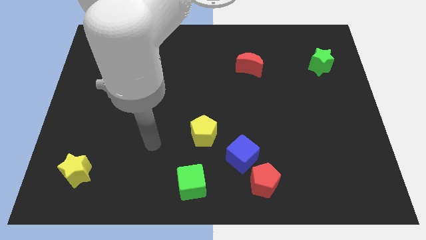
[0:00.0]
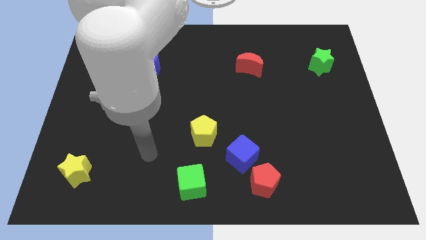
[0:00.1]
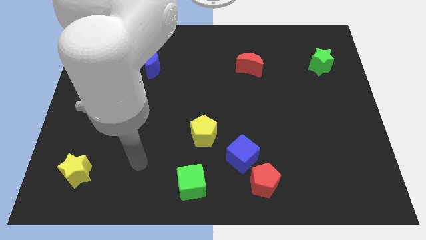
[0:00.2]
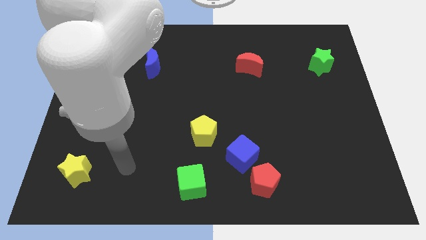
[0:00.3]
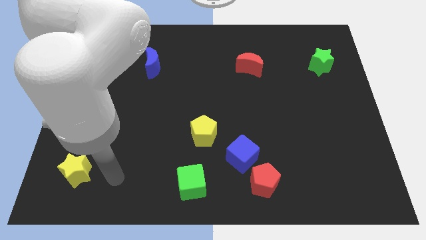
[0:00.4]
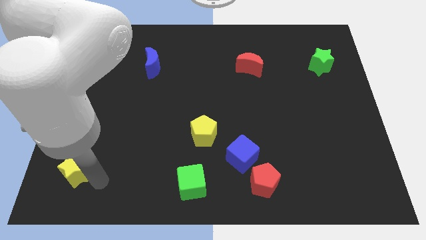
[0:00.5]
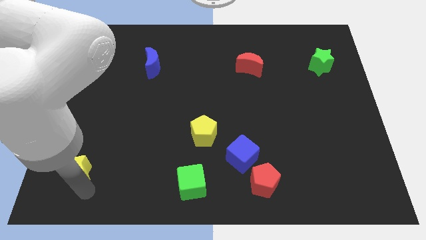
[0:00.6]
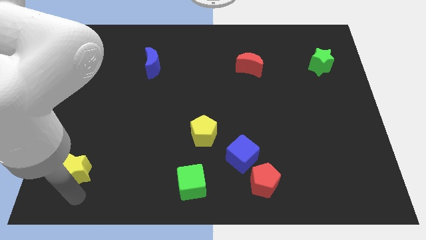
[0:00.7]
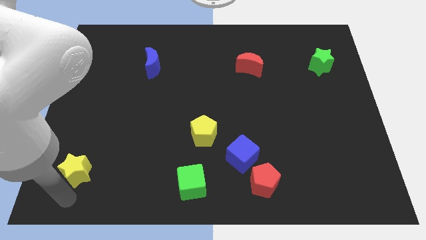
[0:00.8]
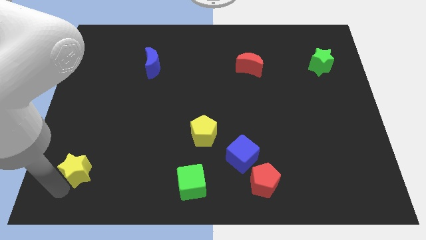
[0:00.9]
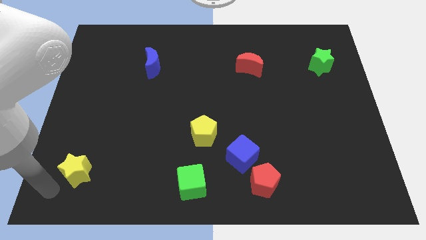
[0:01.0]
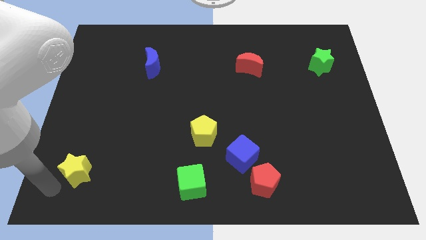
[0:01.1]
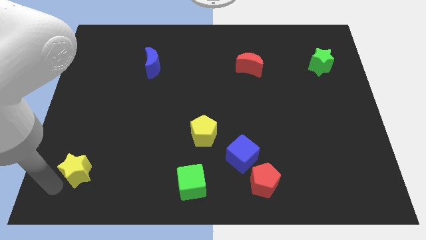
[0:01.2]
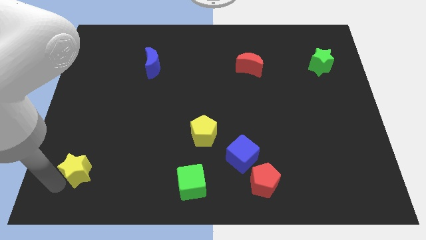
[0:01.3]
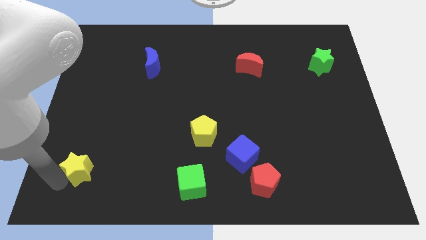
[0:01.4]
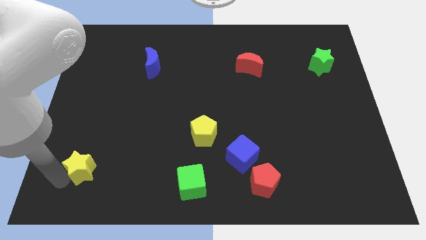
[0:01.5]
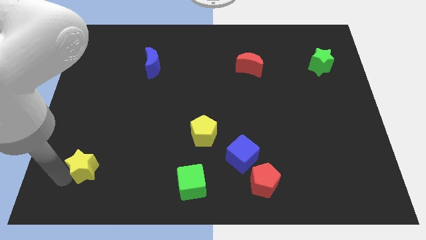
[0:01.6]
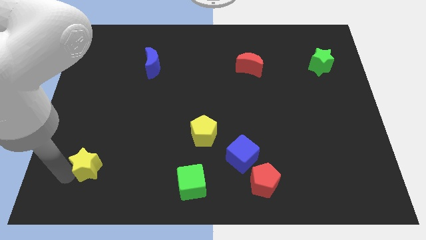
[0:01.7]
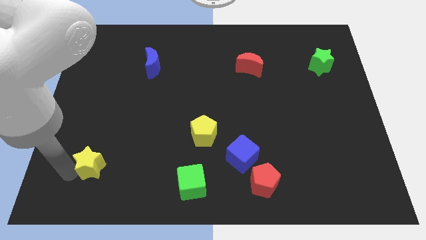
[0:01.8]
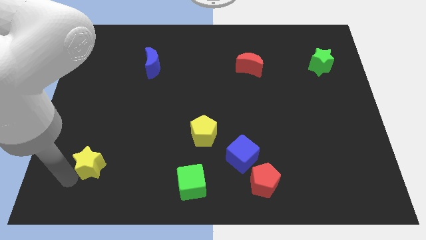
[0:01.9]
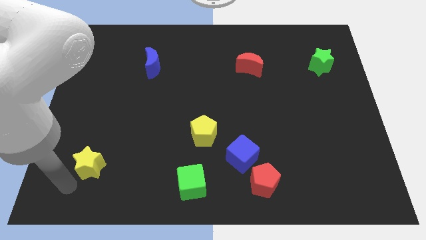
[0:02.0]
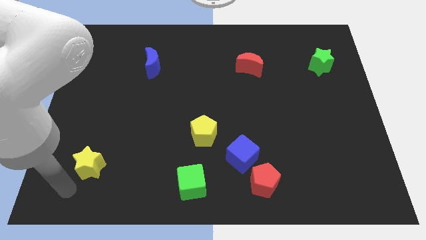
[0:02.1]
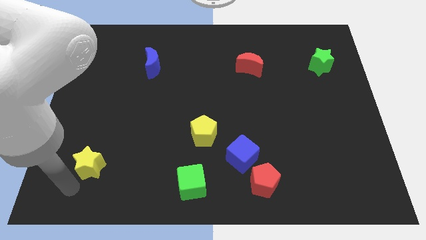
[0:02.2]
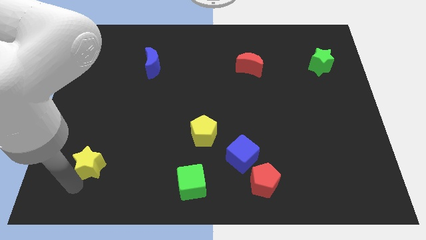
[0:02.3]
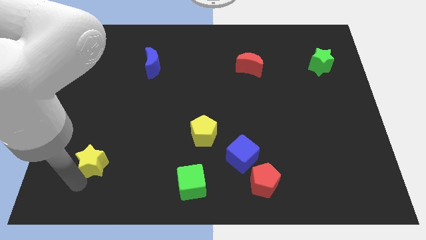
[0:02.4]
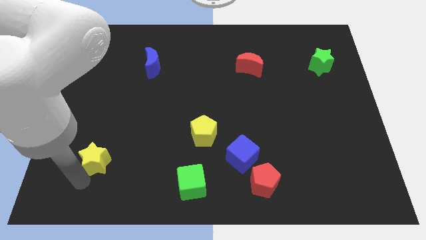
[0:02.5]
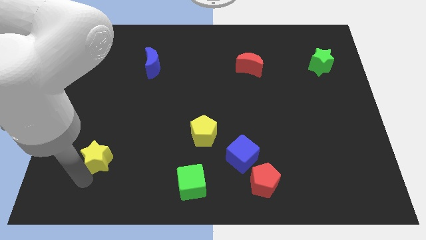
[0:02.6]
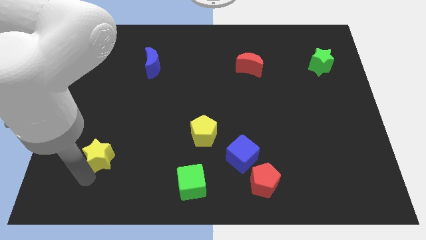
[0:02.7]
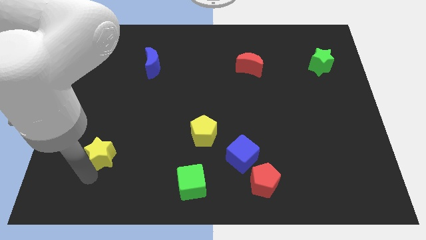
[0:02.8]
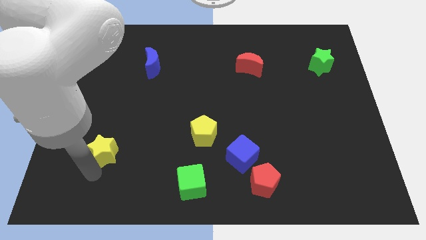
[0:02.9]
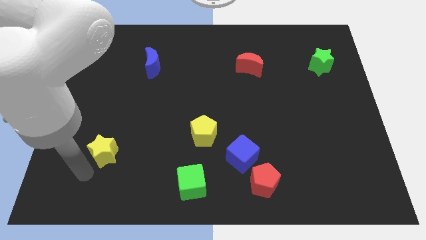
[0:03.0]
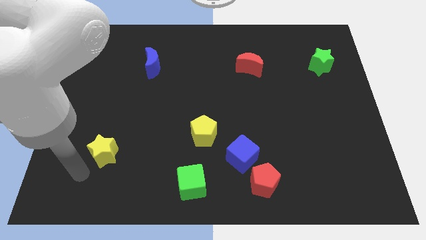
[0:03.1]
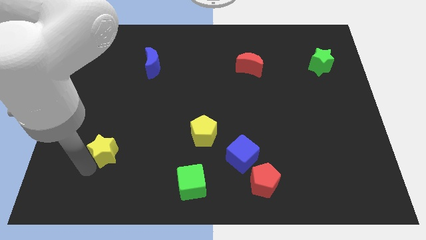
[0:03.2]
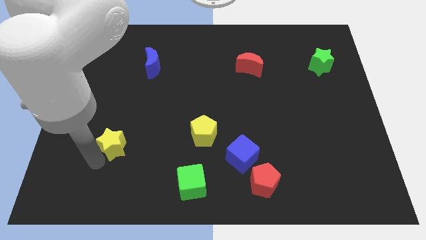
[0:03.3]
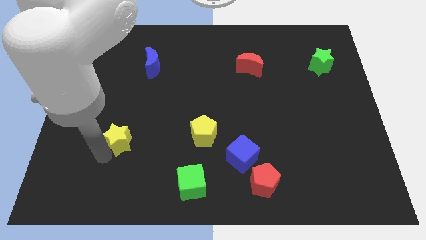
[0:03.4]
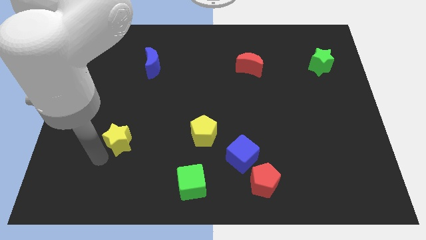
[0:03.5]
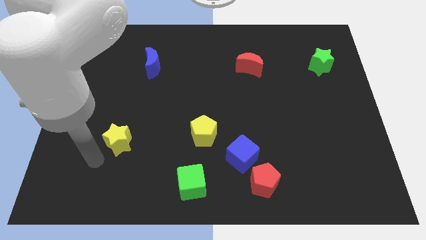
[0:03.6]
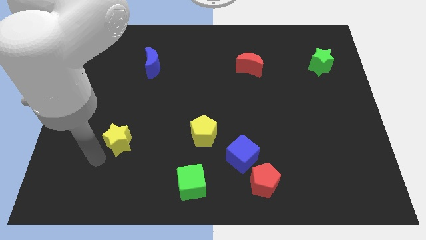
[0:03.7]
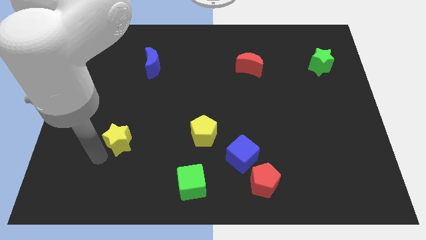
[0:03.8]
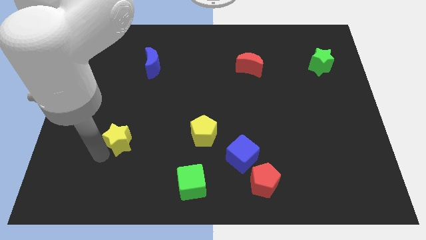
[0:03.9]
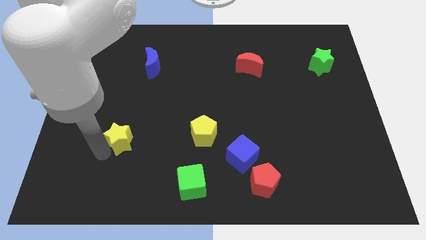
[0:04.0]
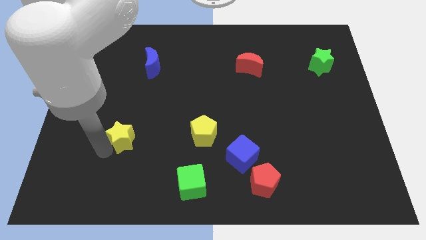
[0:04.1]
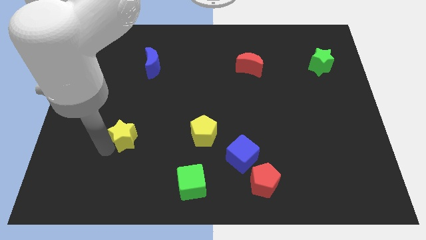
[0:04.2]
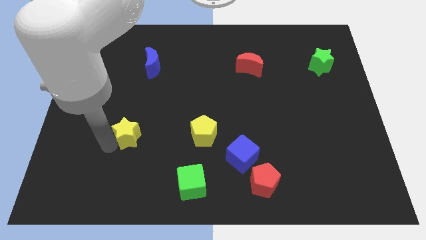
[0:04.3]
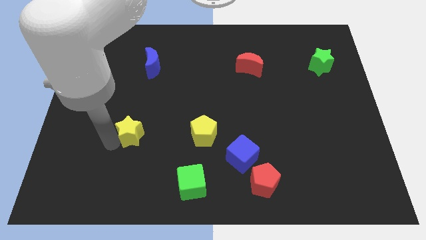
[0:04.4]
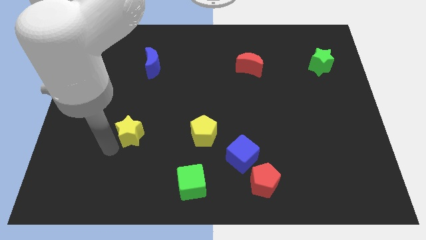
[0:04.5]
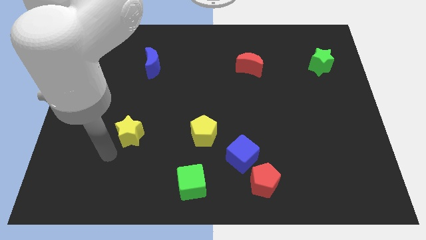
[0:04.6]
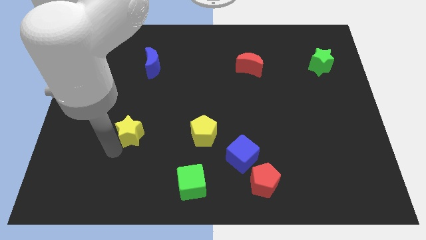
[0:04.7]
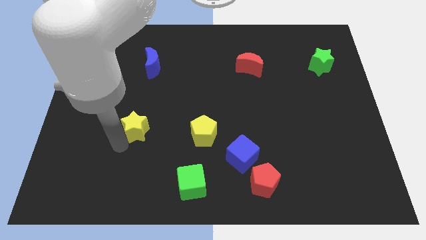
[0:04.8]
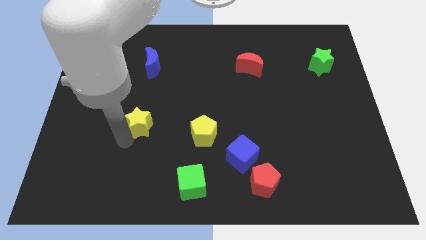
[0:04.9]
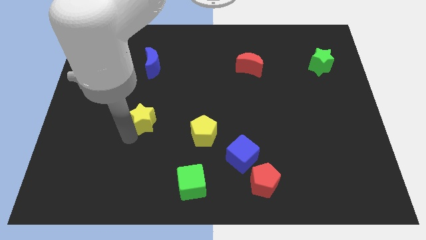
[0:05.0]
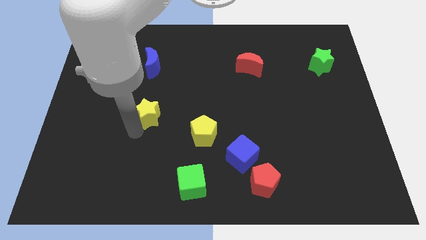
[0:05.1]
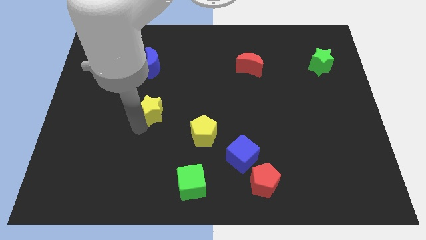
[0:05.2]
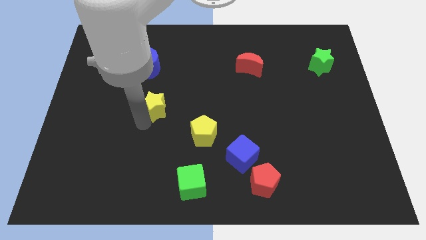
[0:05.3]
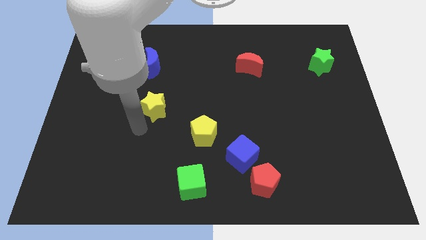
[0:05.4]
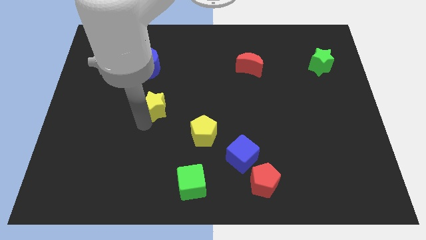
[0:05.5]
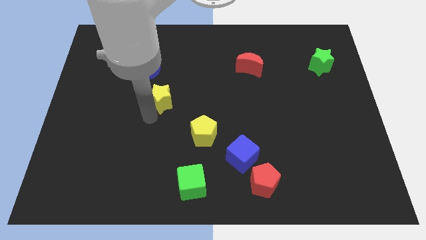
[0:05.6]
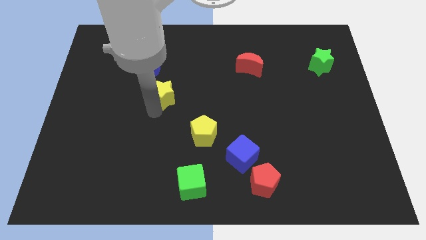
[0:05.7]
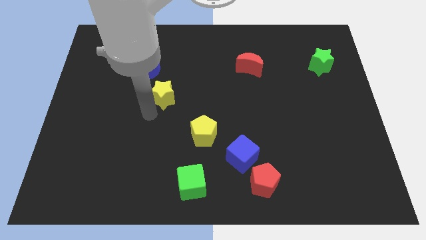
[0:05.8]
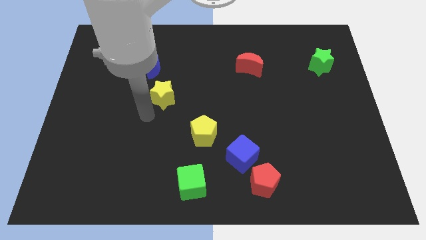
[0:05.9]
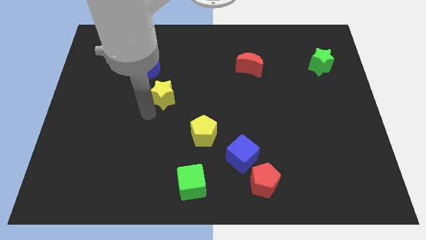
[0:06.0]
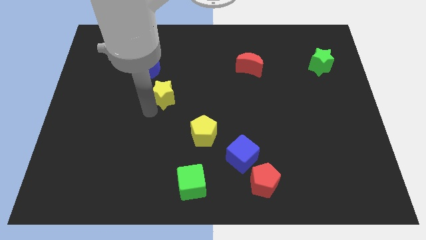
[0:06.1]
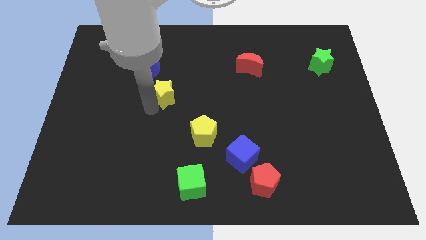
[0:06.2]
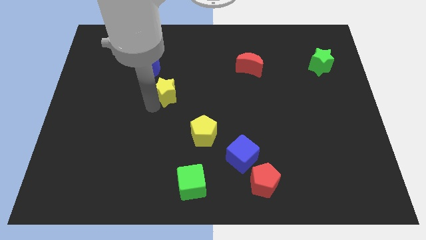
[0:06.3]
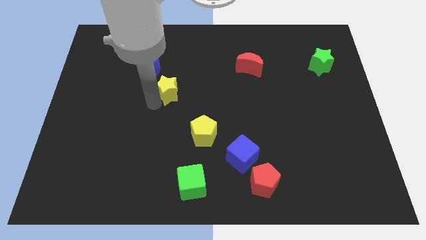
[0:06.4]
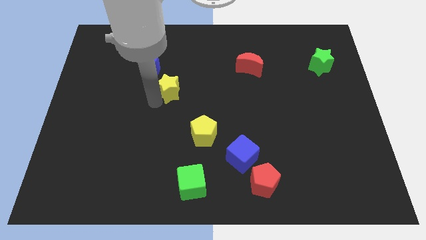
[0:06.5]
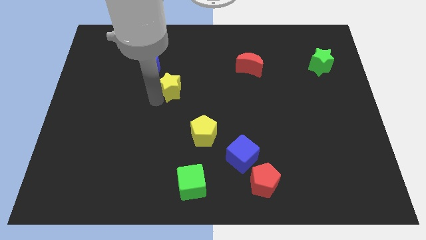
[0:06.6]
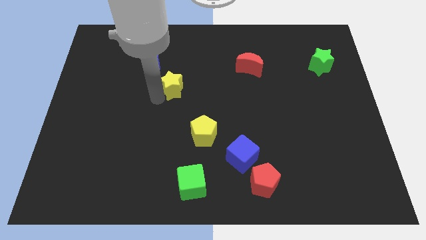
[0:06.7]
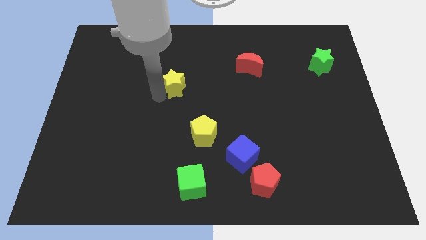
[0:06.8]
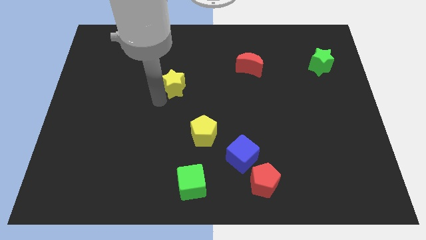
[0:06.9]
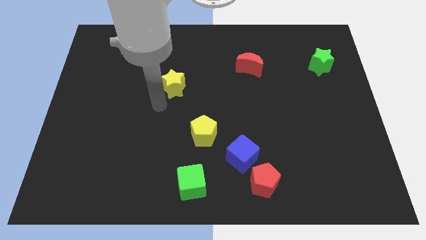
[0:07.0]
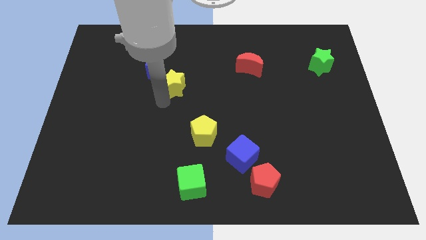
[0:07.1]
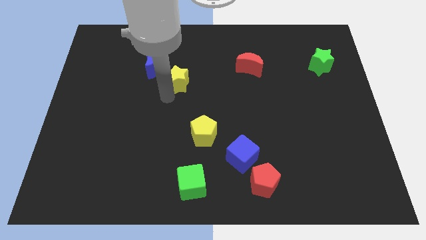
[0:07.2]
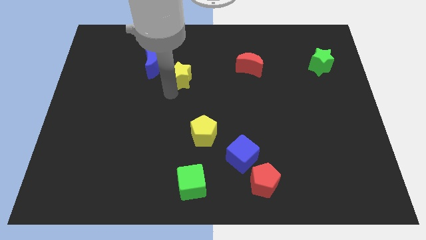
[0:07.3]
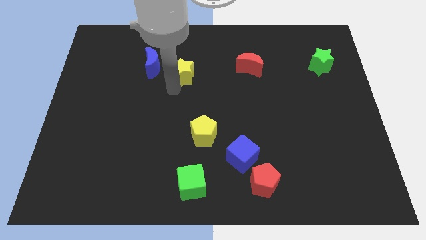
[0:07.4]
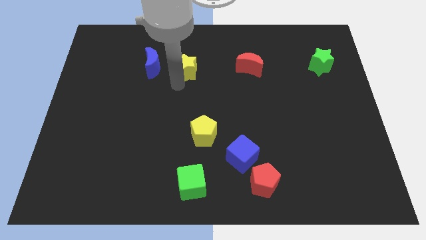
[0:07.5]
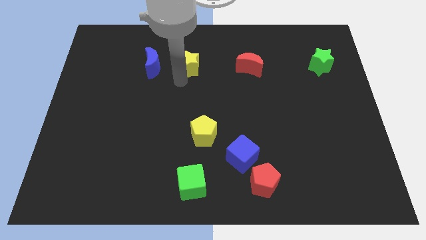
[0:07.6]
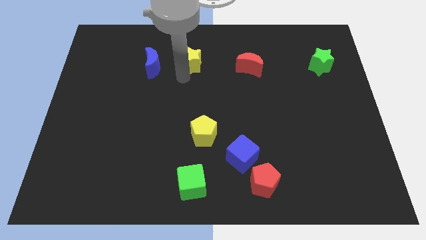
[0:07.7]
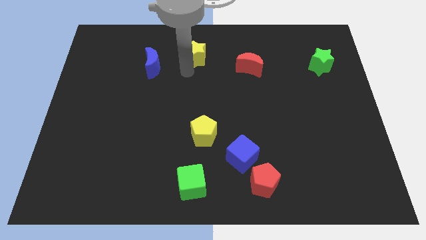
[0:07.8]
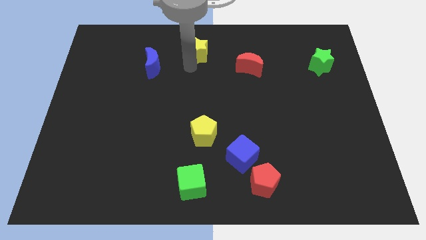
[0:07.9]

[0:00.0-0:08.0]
put the yellow star to the top
